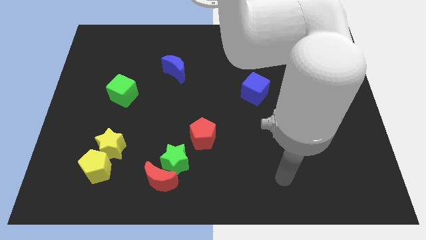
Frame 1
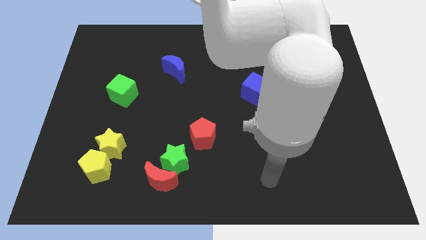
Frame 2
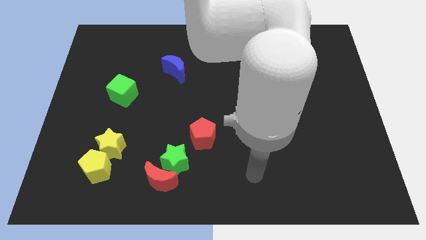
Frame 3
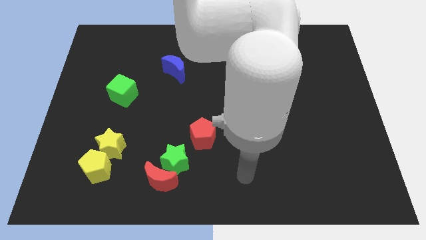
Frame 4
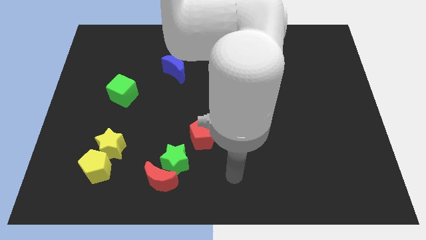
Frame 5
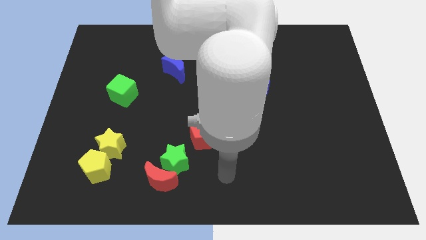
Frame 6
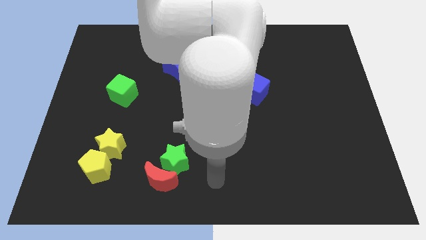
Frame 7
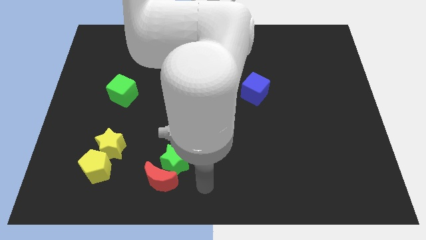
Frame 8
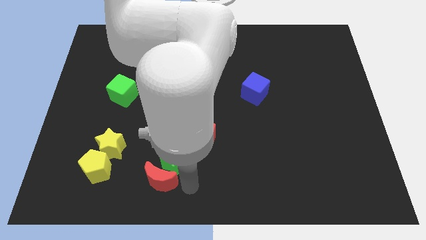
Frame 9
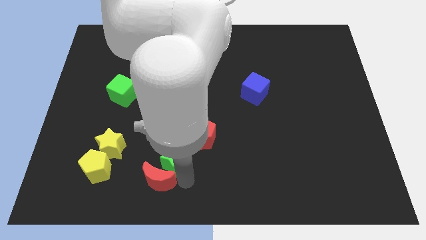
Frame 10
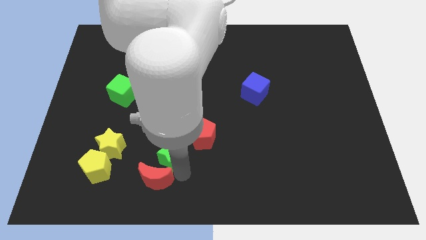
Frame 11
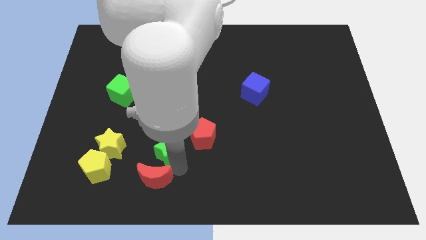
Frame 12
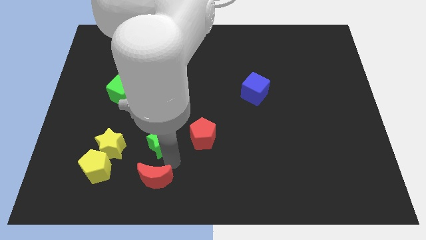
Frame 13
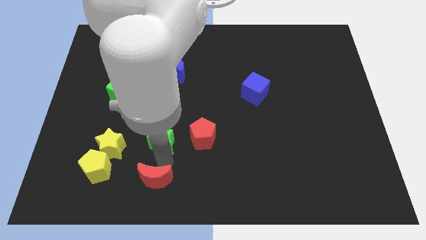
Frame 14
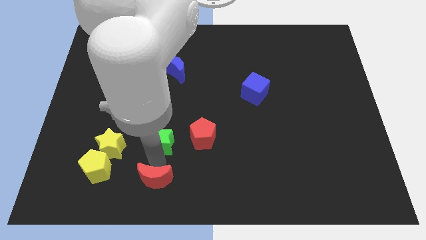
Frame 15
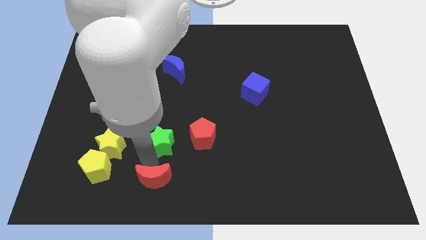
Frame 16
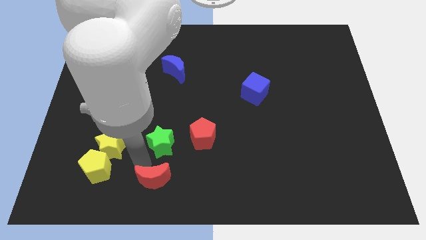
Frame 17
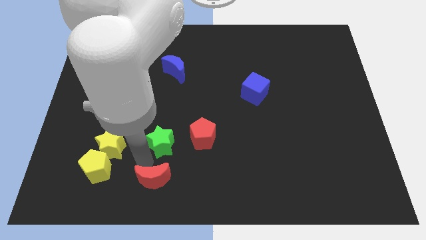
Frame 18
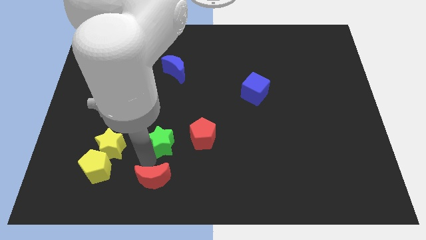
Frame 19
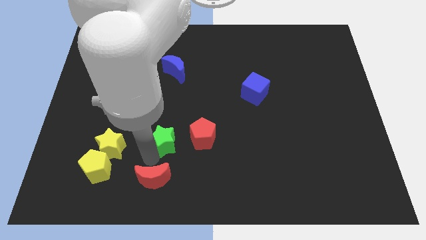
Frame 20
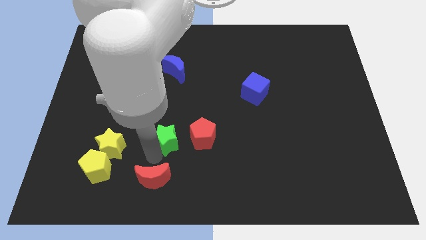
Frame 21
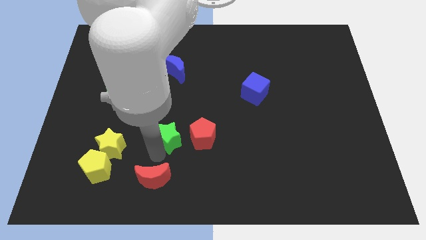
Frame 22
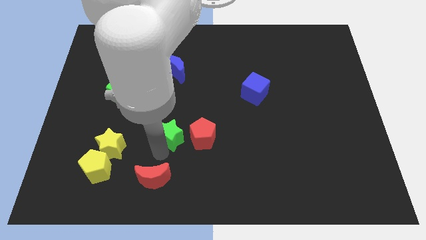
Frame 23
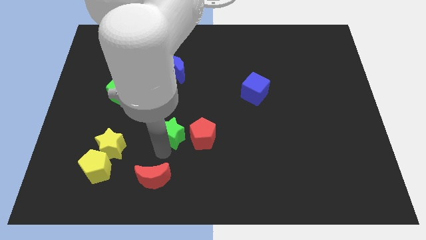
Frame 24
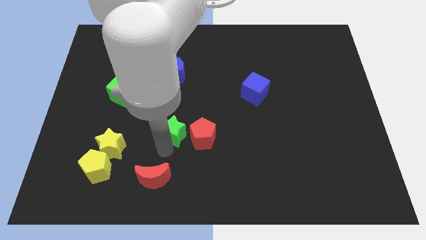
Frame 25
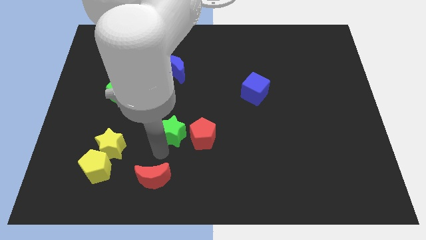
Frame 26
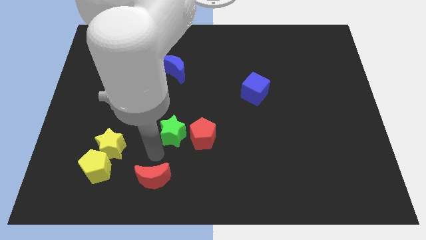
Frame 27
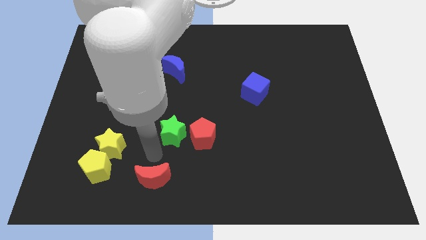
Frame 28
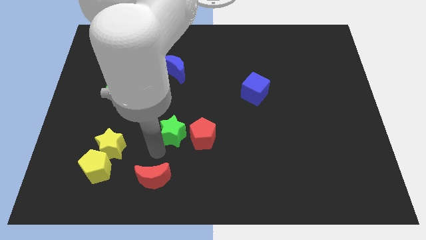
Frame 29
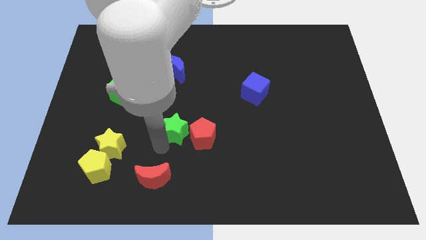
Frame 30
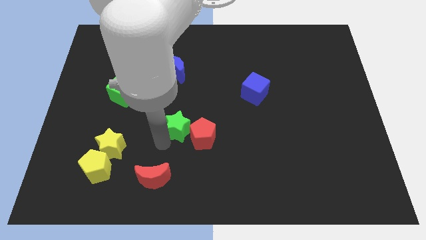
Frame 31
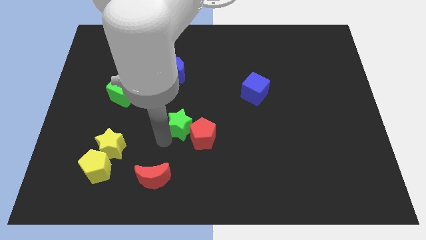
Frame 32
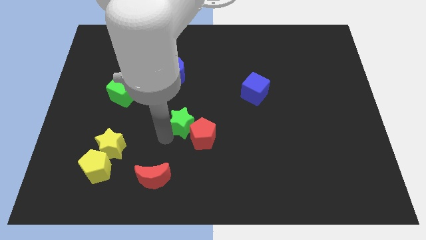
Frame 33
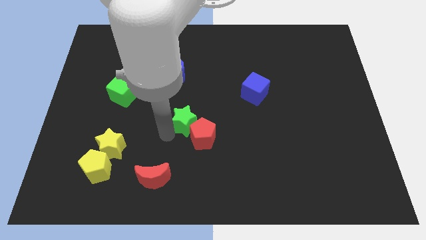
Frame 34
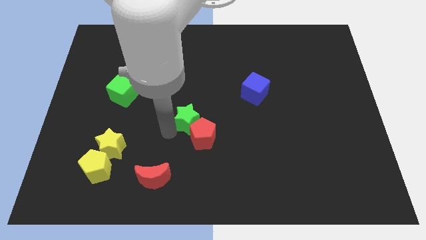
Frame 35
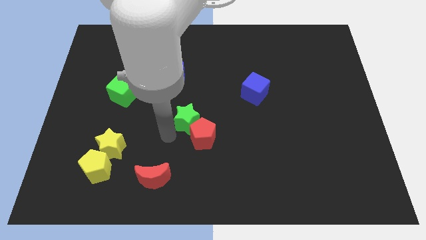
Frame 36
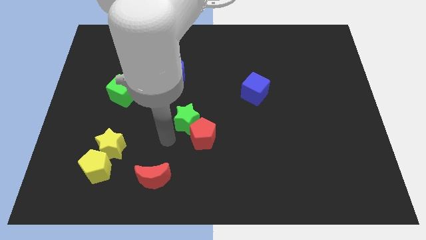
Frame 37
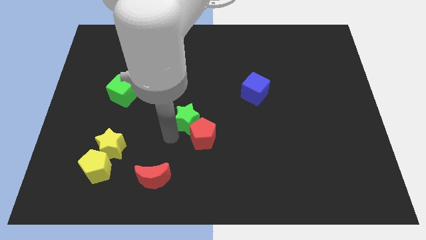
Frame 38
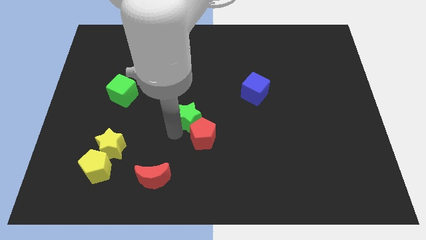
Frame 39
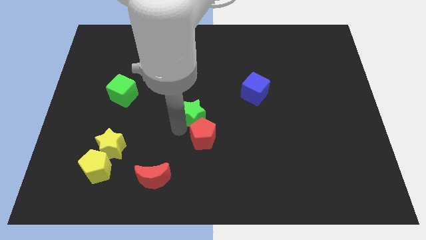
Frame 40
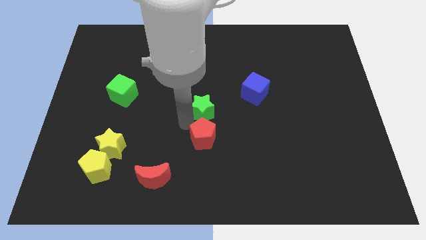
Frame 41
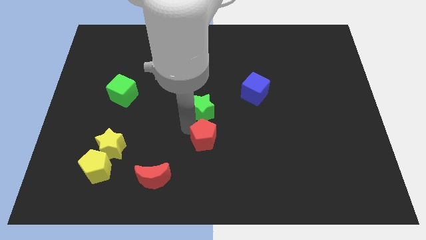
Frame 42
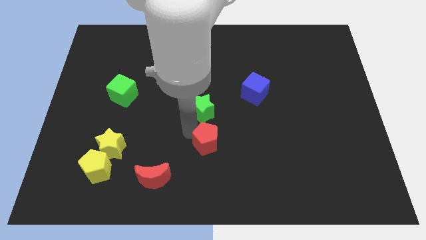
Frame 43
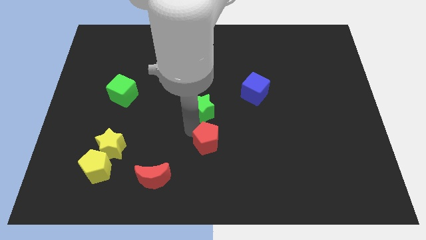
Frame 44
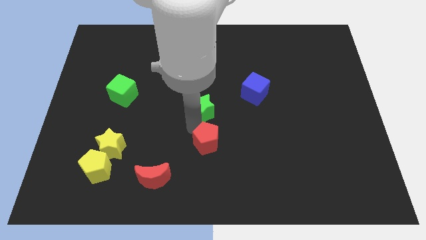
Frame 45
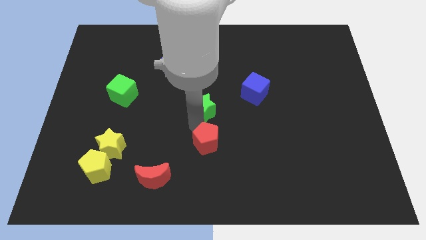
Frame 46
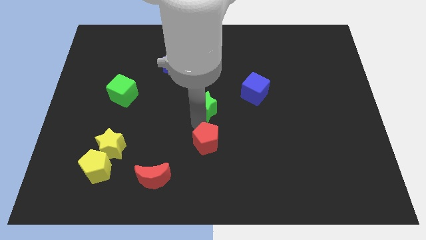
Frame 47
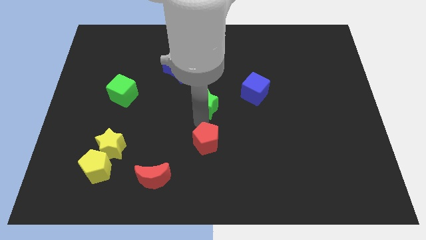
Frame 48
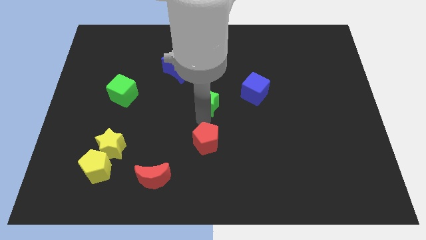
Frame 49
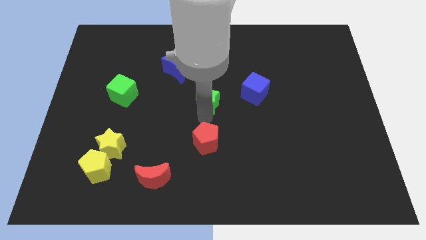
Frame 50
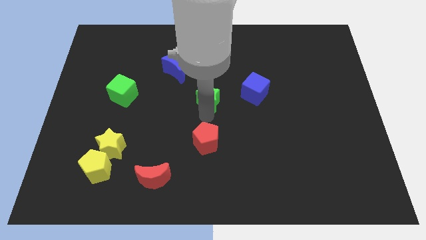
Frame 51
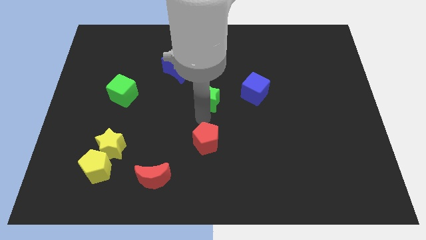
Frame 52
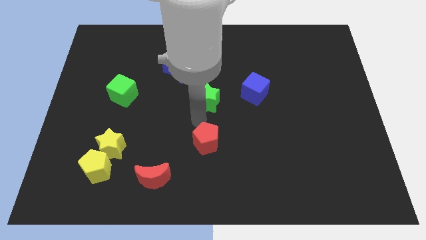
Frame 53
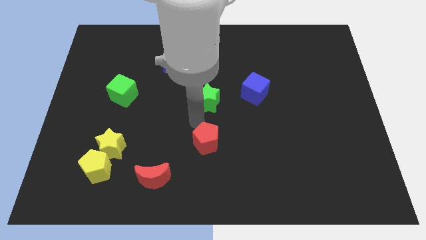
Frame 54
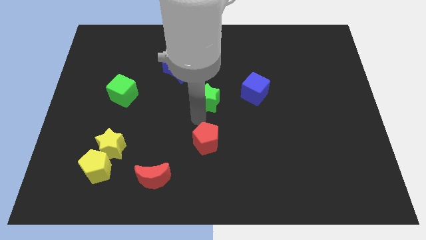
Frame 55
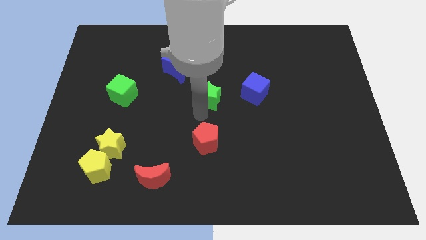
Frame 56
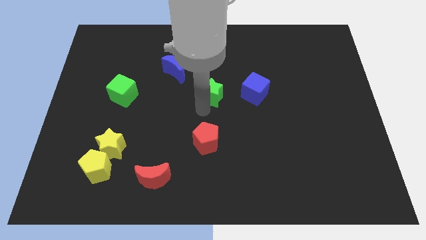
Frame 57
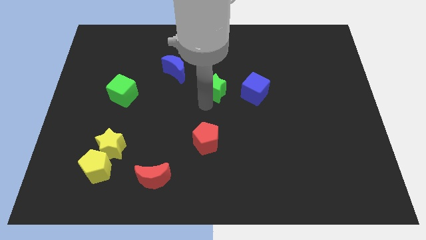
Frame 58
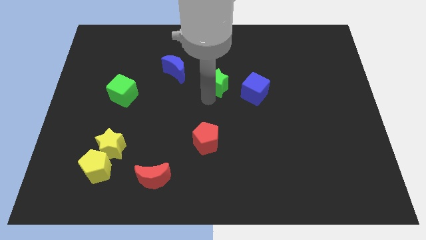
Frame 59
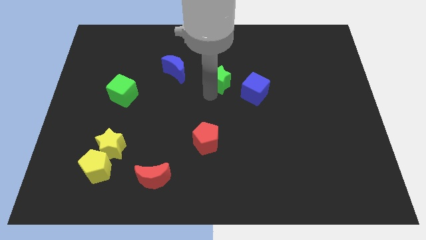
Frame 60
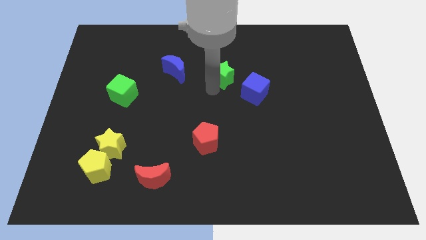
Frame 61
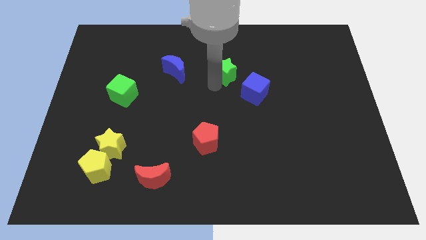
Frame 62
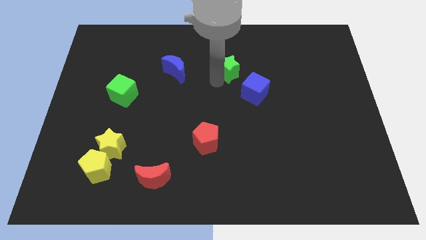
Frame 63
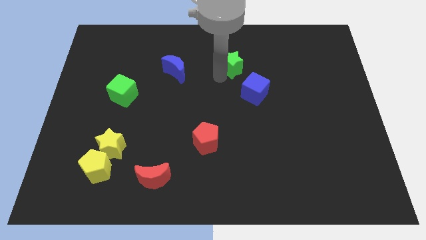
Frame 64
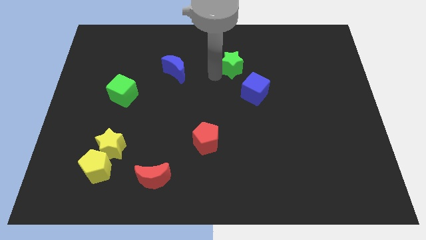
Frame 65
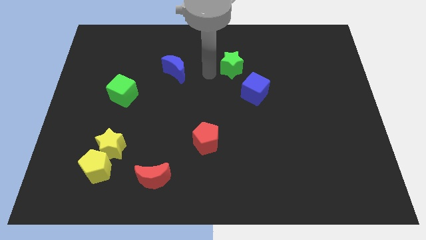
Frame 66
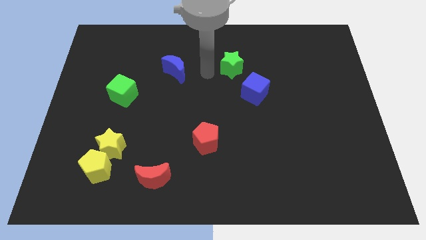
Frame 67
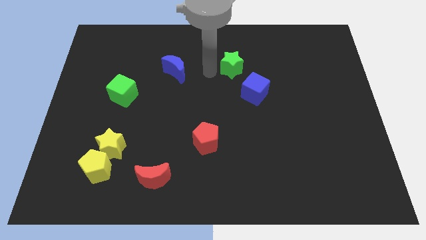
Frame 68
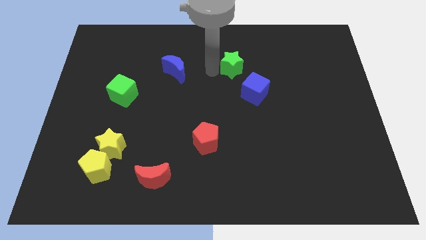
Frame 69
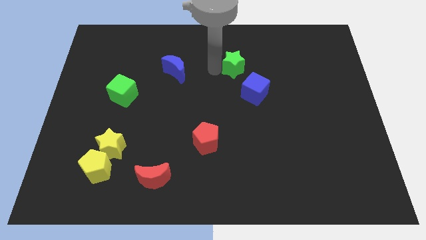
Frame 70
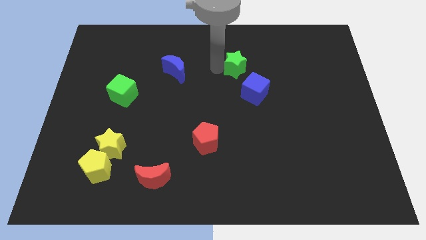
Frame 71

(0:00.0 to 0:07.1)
push the green star to the top side of the blue cube

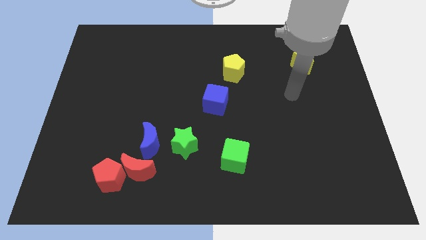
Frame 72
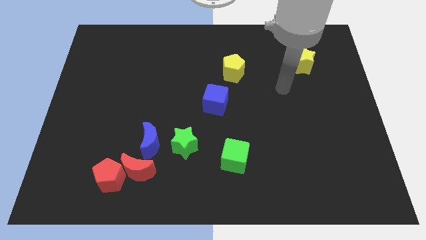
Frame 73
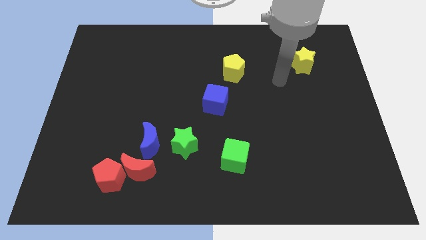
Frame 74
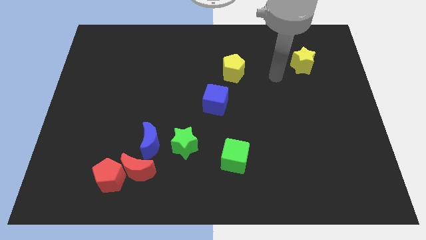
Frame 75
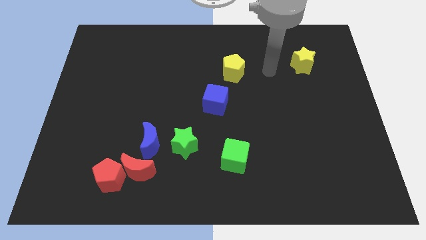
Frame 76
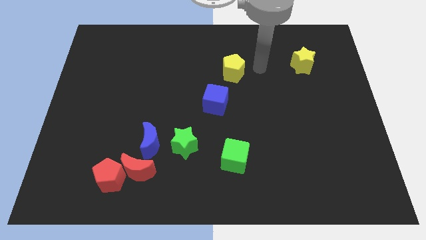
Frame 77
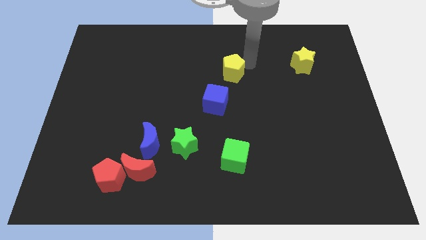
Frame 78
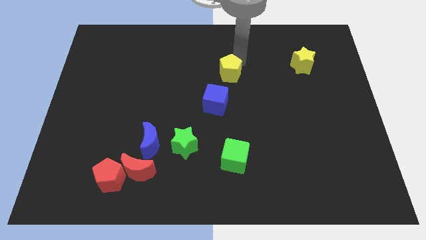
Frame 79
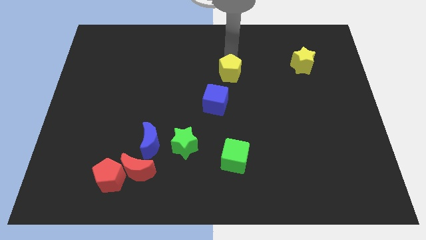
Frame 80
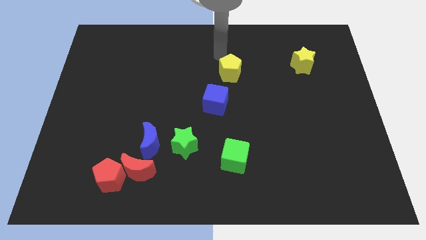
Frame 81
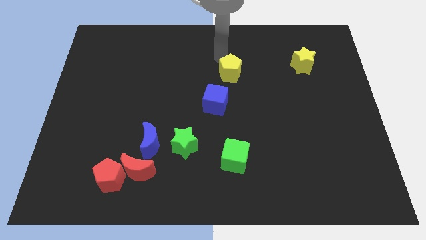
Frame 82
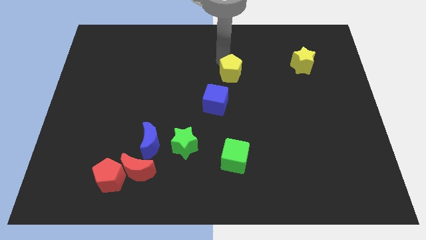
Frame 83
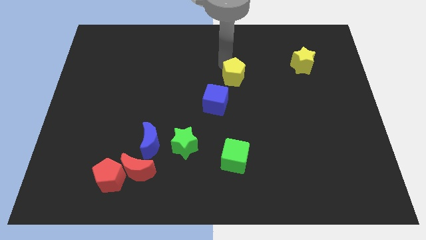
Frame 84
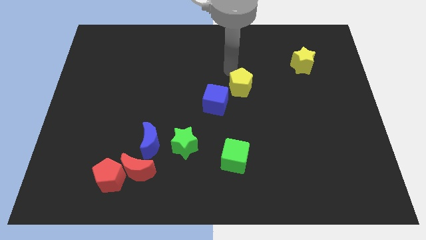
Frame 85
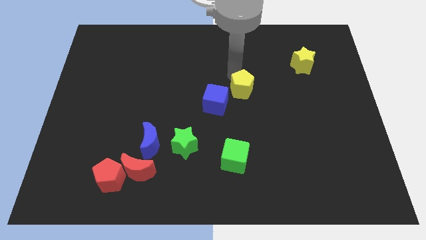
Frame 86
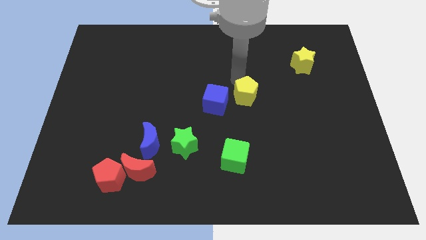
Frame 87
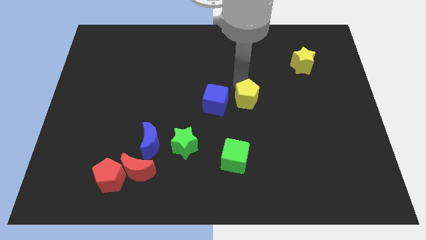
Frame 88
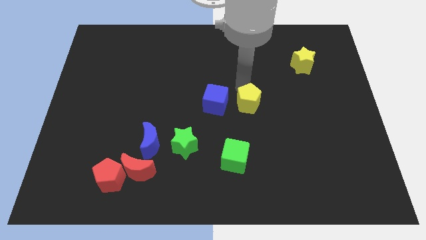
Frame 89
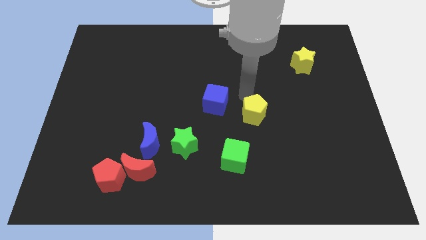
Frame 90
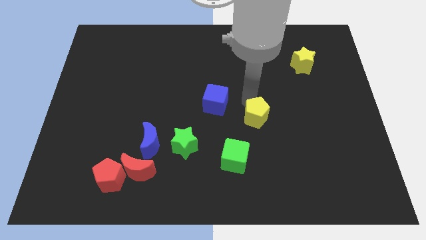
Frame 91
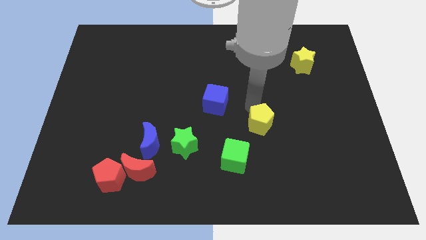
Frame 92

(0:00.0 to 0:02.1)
push the yellow pentagon diagonally up and to the right of the green cube
